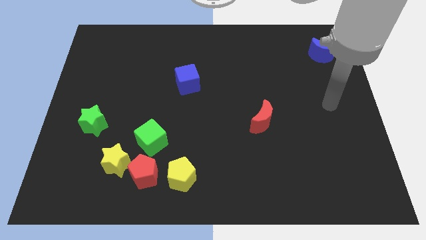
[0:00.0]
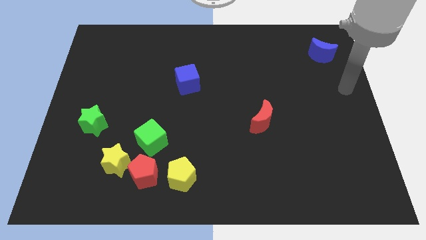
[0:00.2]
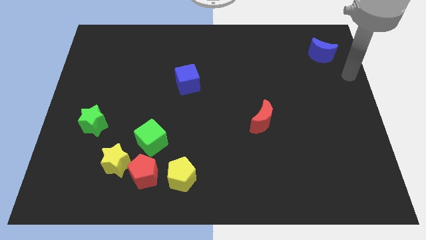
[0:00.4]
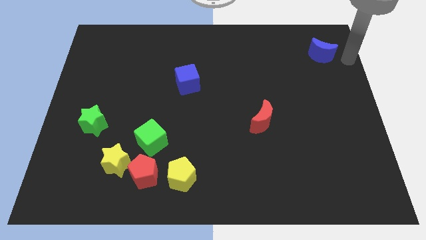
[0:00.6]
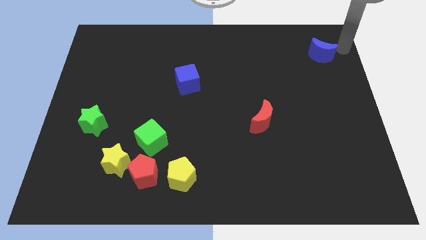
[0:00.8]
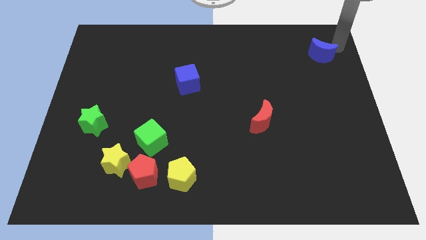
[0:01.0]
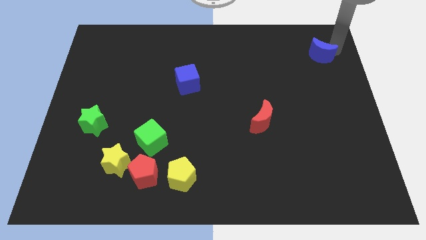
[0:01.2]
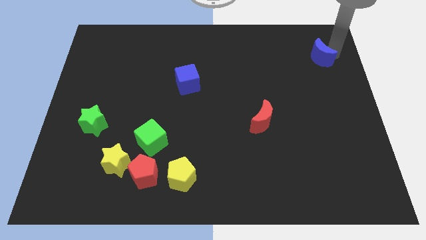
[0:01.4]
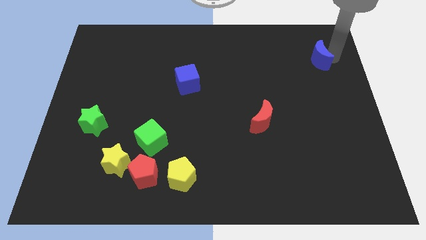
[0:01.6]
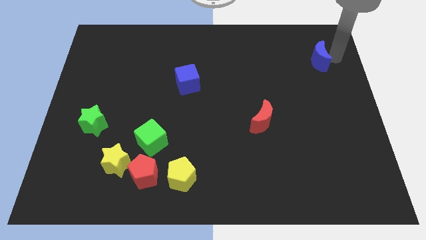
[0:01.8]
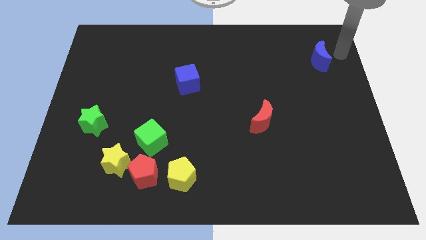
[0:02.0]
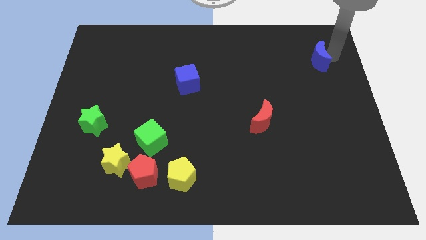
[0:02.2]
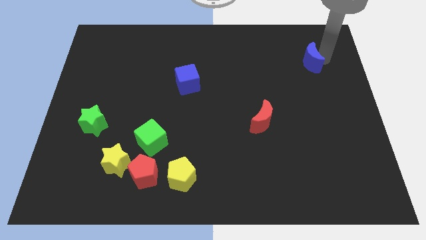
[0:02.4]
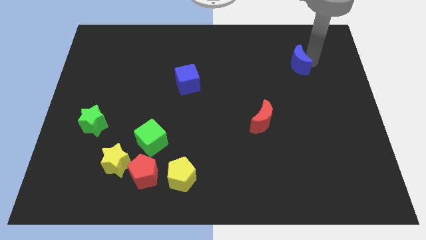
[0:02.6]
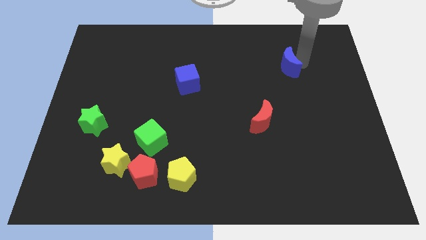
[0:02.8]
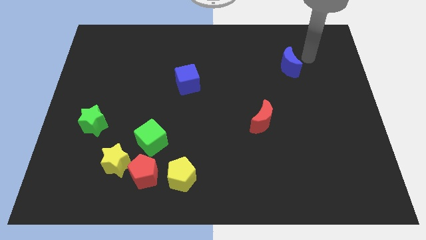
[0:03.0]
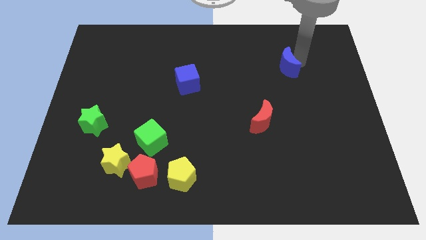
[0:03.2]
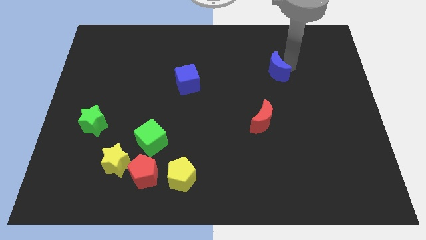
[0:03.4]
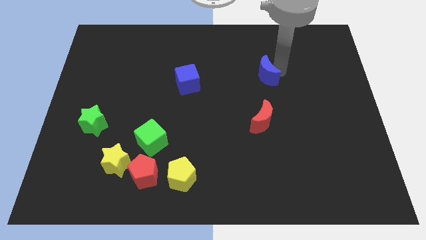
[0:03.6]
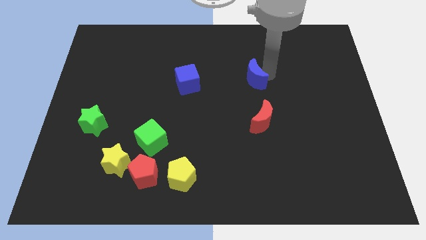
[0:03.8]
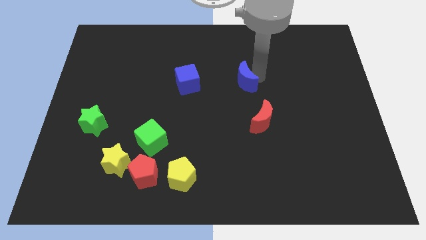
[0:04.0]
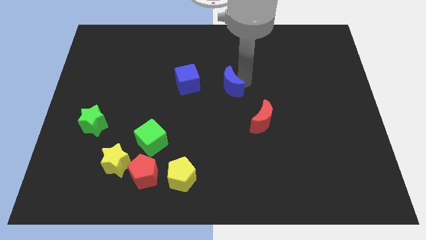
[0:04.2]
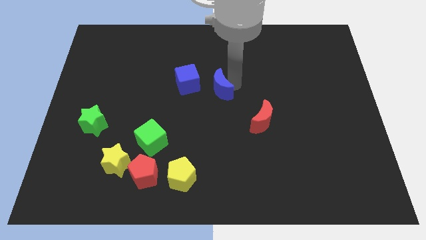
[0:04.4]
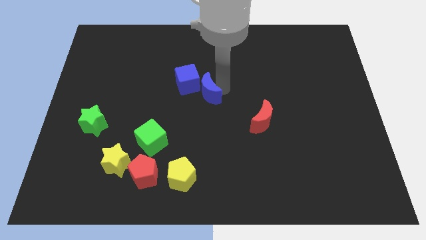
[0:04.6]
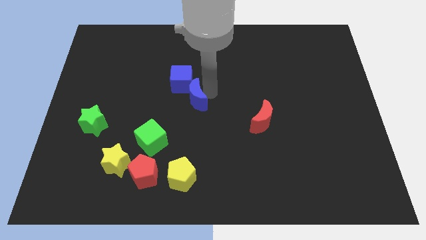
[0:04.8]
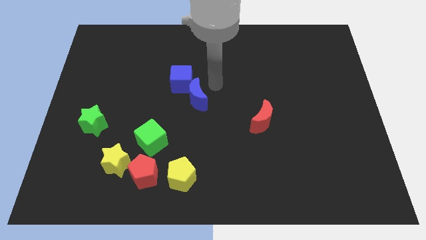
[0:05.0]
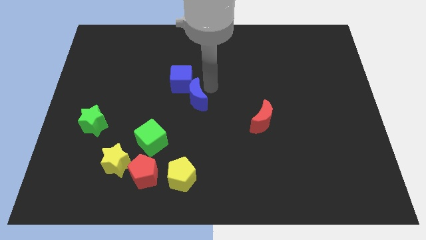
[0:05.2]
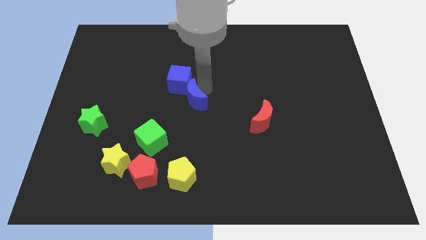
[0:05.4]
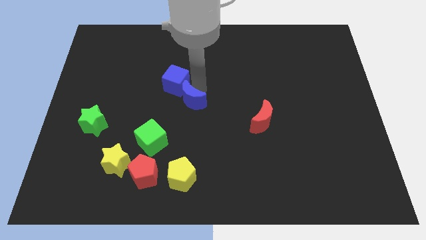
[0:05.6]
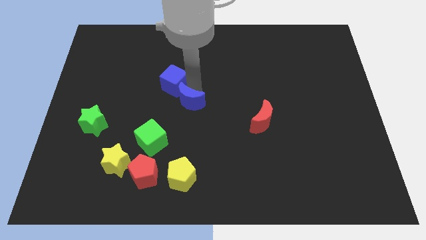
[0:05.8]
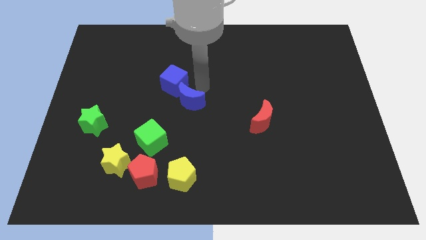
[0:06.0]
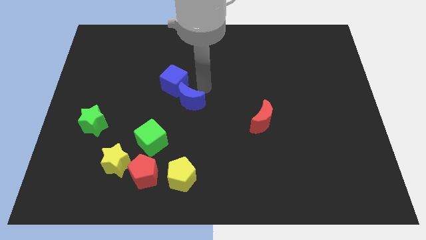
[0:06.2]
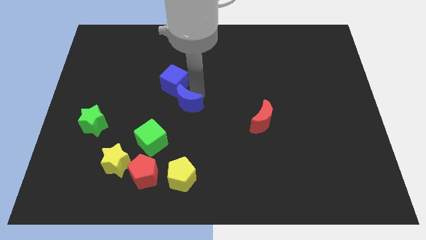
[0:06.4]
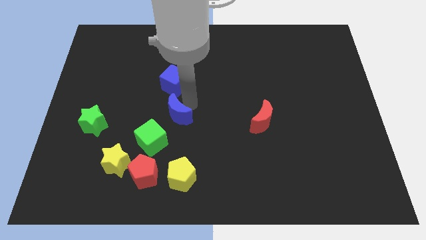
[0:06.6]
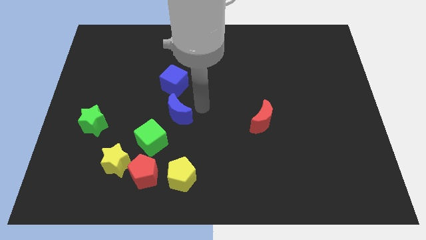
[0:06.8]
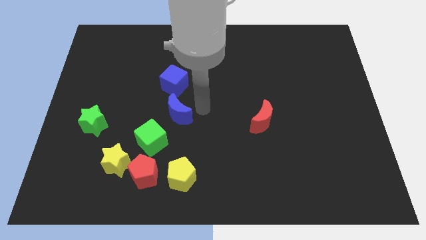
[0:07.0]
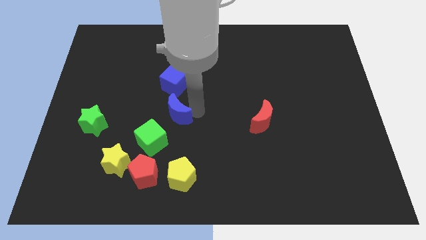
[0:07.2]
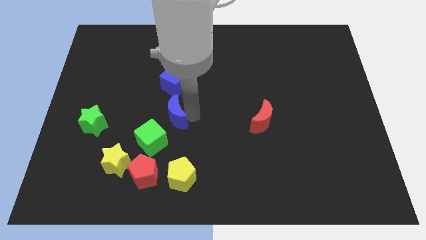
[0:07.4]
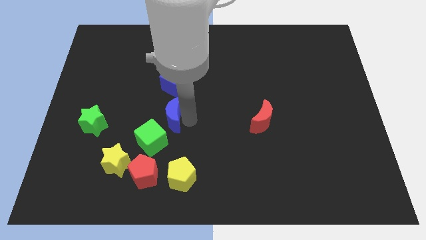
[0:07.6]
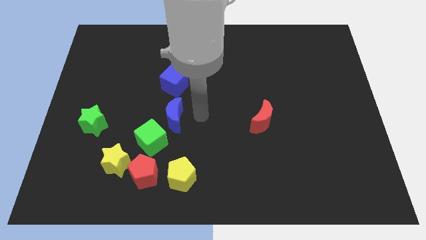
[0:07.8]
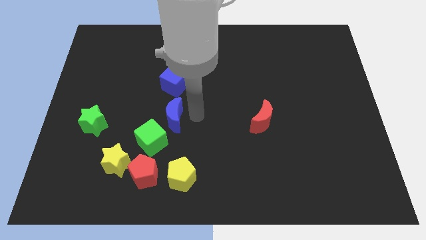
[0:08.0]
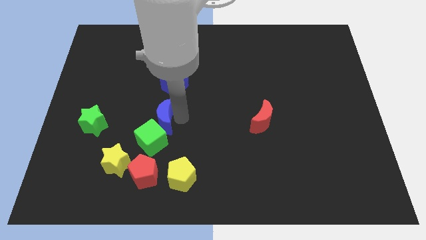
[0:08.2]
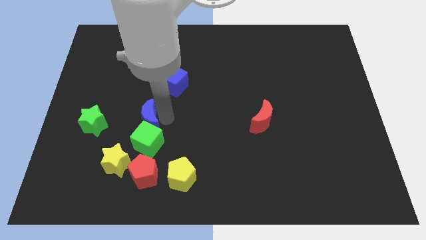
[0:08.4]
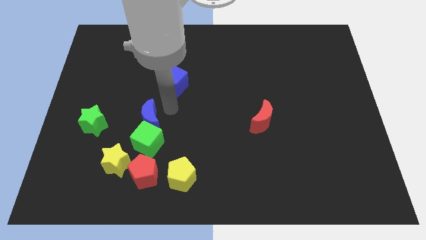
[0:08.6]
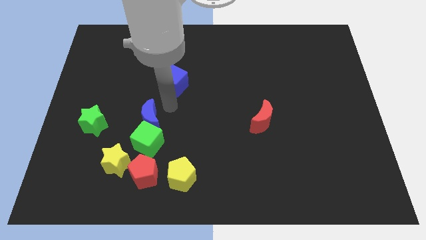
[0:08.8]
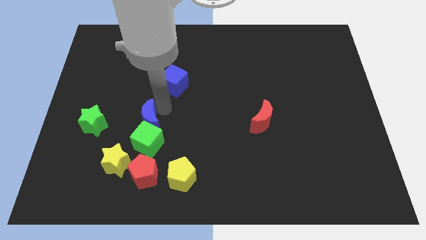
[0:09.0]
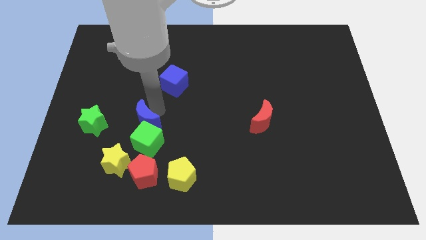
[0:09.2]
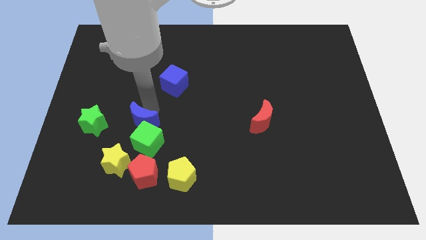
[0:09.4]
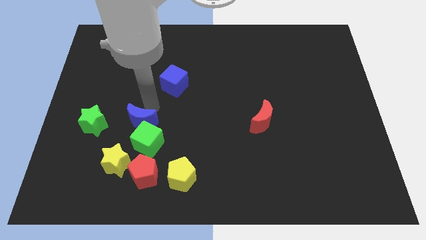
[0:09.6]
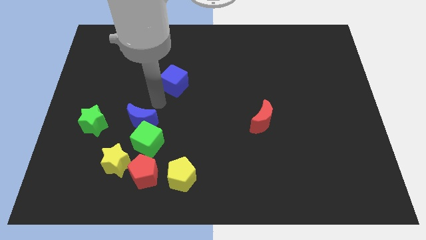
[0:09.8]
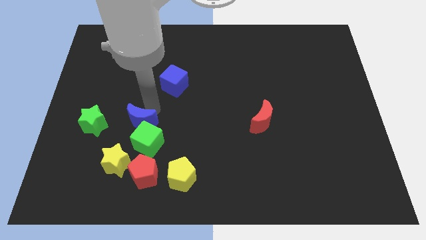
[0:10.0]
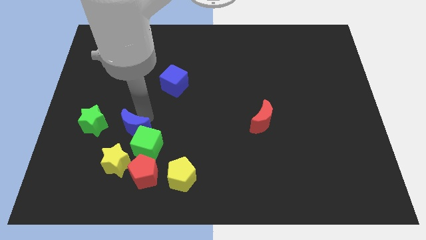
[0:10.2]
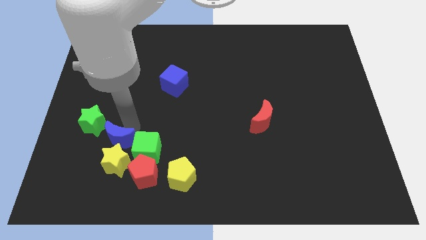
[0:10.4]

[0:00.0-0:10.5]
slide the blue moon to the yellow star

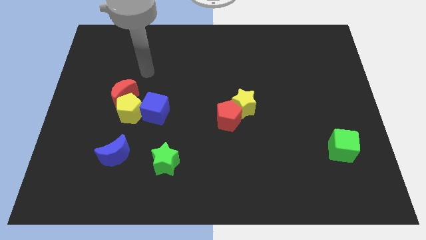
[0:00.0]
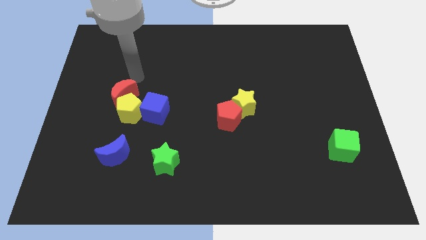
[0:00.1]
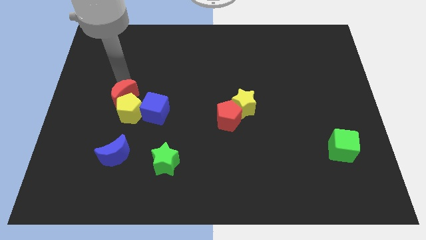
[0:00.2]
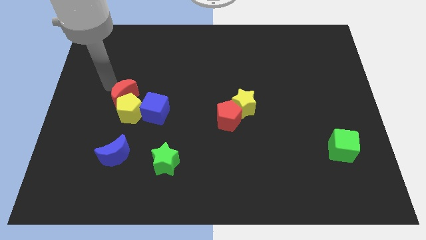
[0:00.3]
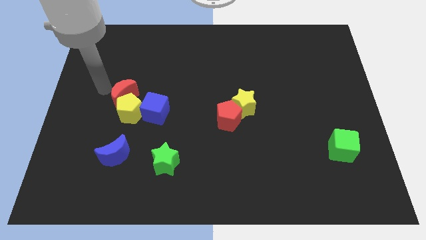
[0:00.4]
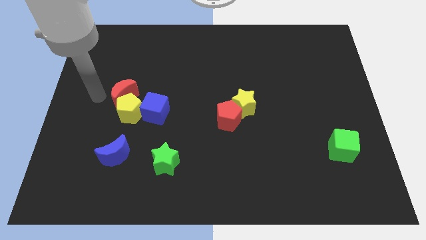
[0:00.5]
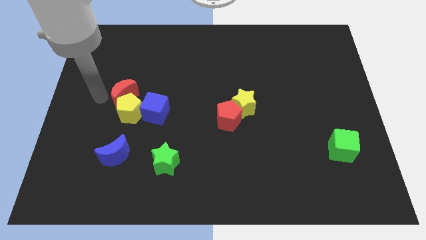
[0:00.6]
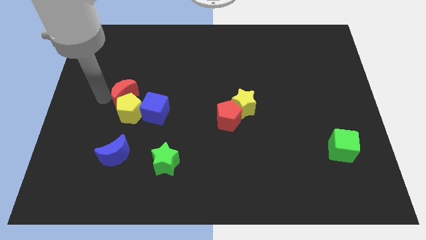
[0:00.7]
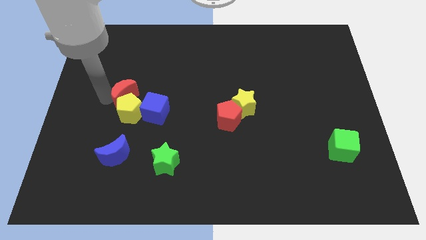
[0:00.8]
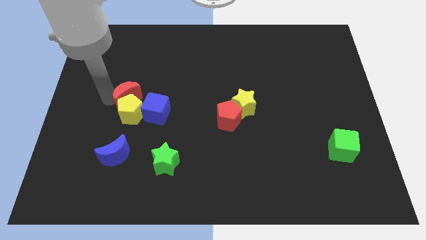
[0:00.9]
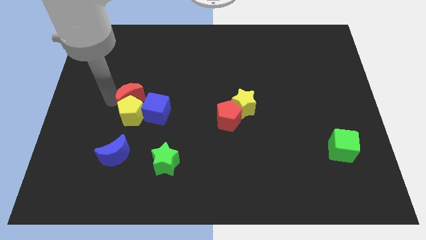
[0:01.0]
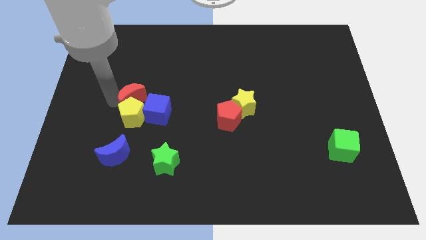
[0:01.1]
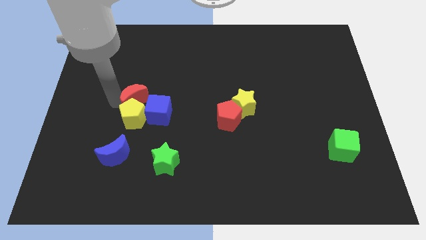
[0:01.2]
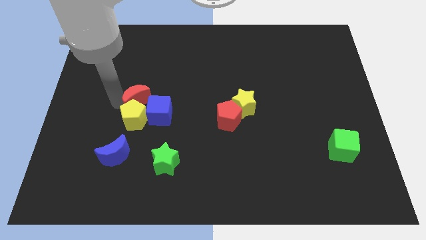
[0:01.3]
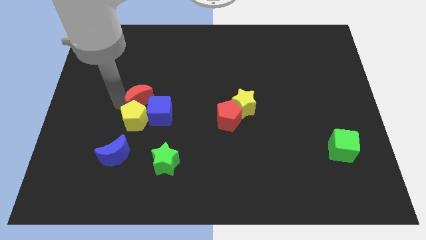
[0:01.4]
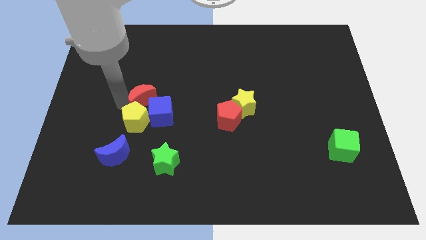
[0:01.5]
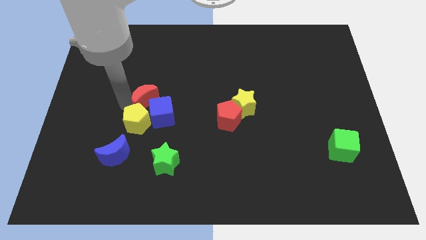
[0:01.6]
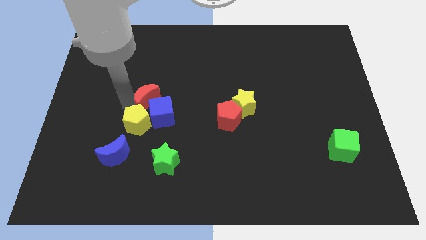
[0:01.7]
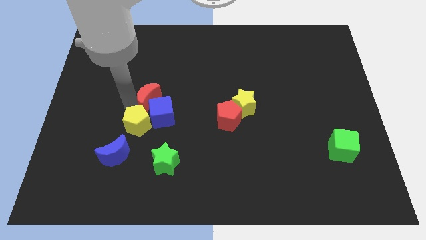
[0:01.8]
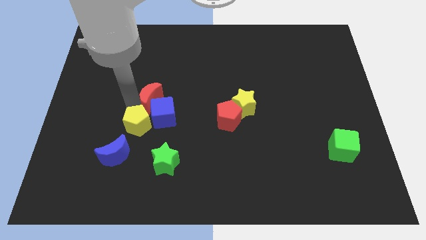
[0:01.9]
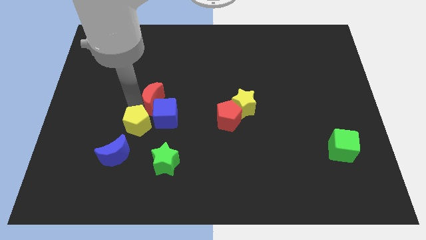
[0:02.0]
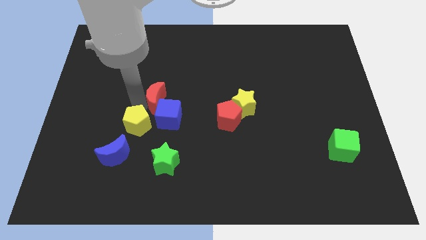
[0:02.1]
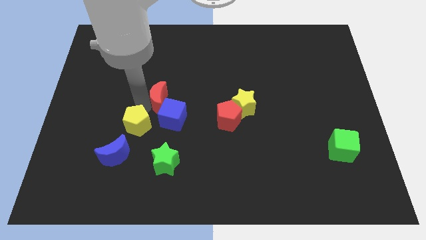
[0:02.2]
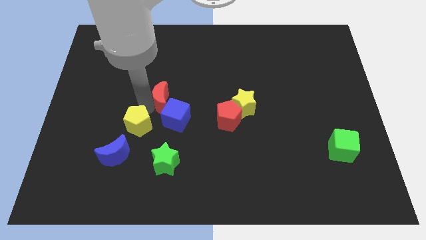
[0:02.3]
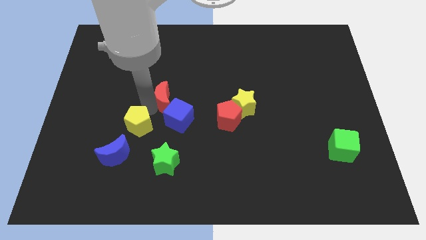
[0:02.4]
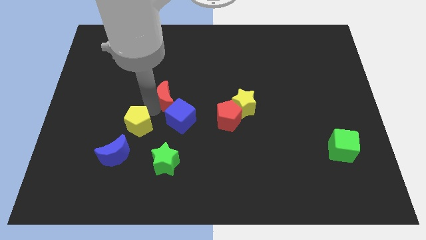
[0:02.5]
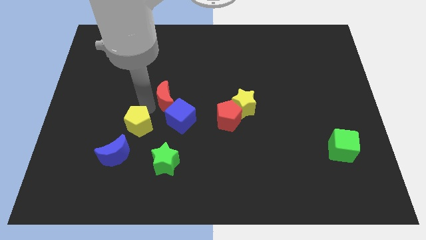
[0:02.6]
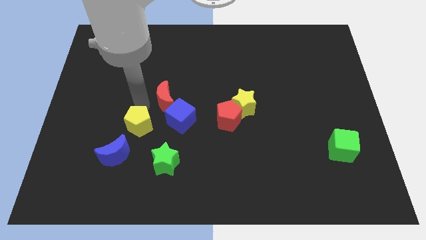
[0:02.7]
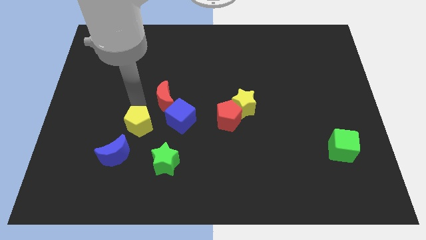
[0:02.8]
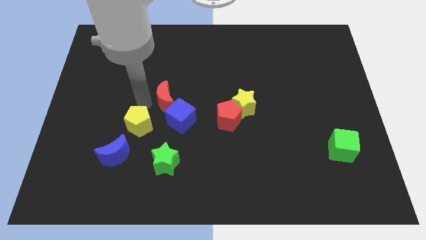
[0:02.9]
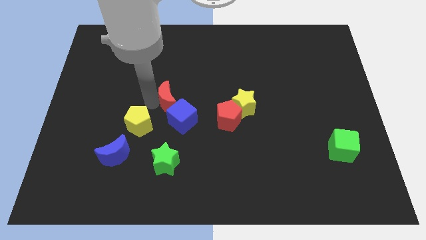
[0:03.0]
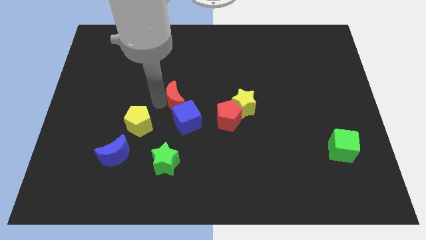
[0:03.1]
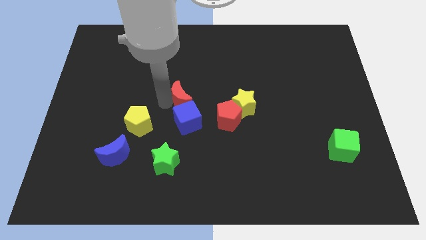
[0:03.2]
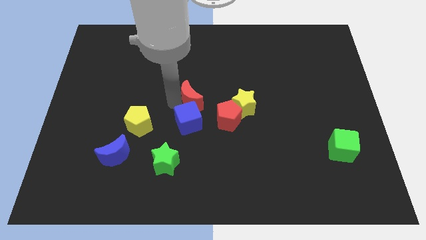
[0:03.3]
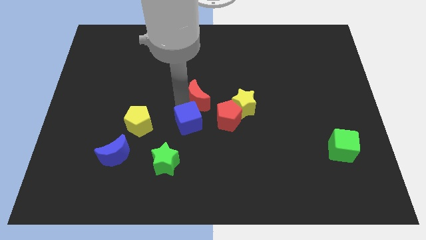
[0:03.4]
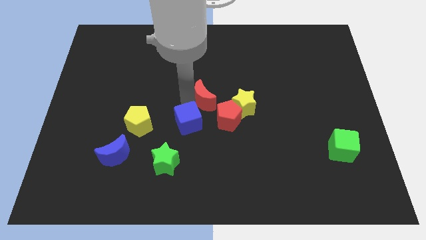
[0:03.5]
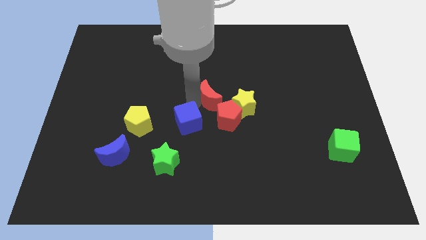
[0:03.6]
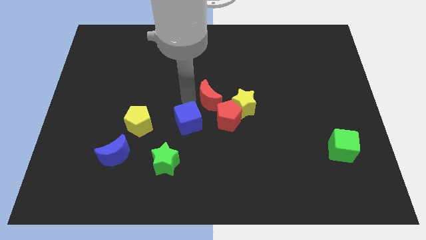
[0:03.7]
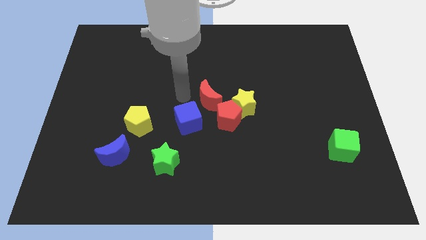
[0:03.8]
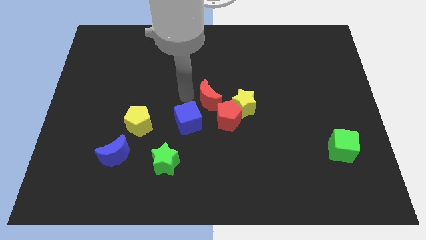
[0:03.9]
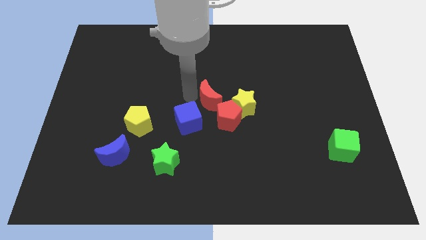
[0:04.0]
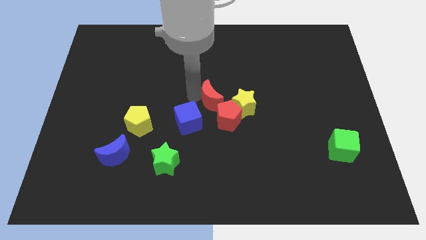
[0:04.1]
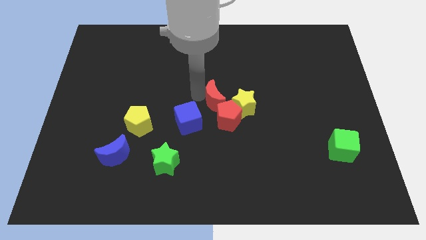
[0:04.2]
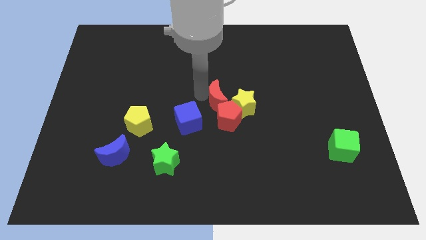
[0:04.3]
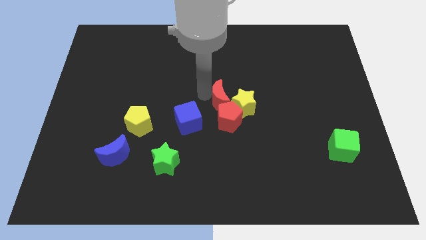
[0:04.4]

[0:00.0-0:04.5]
slide the red moon towards the yellow star
